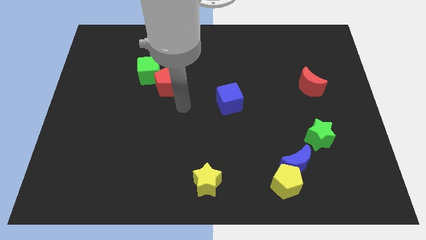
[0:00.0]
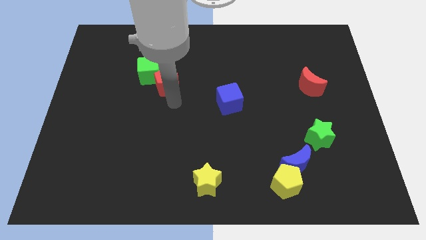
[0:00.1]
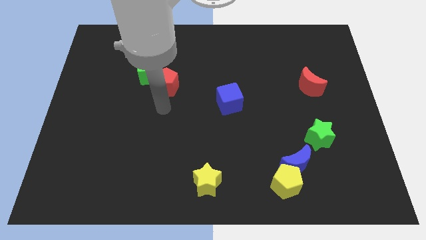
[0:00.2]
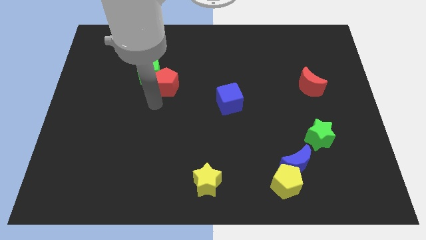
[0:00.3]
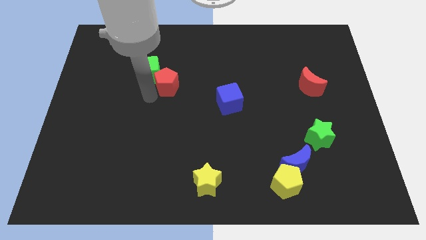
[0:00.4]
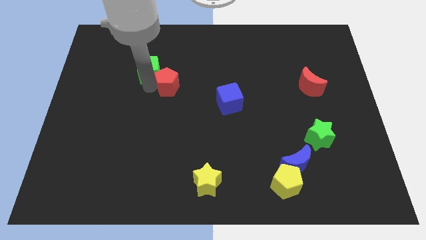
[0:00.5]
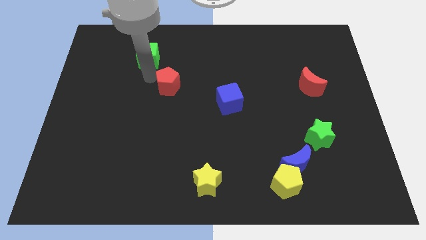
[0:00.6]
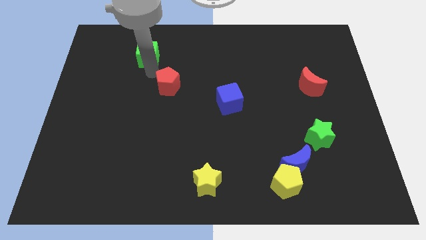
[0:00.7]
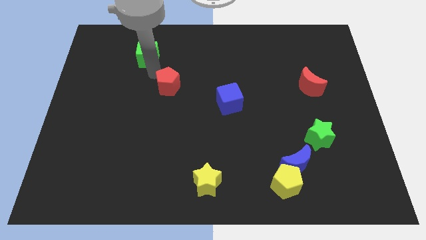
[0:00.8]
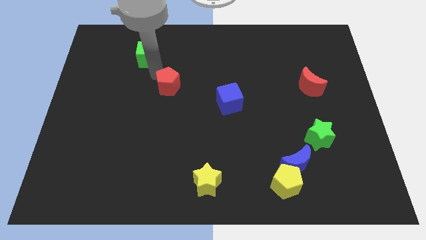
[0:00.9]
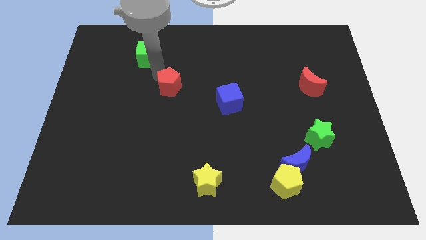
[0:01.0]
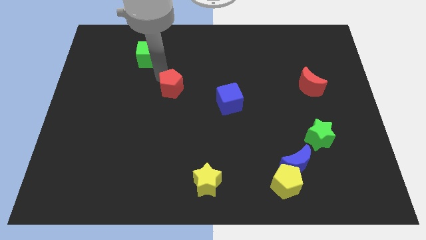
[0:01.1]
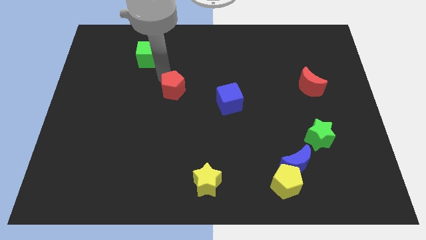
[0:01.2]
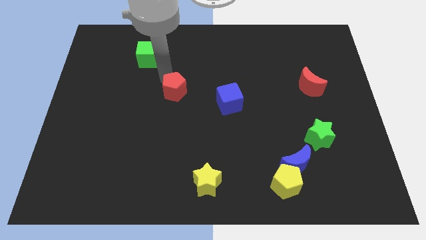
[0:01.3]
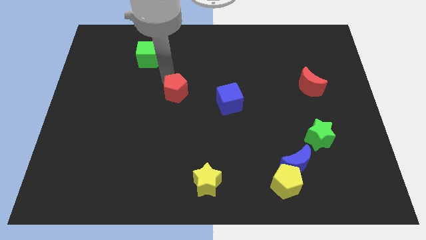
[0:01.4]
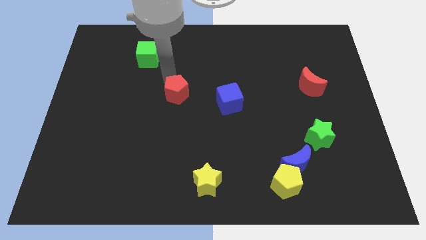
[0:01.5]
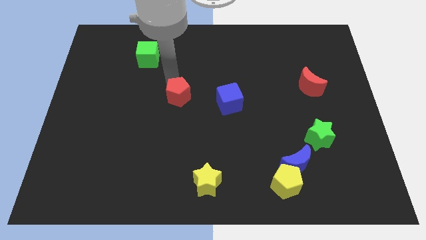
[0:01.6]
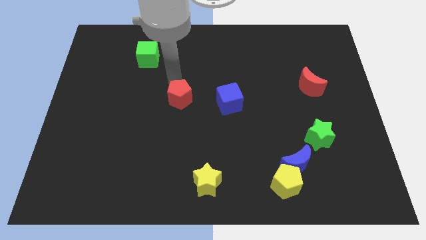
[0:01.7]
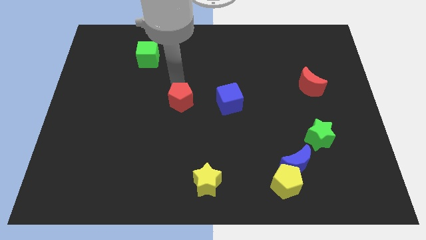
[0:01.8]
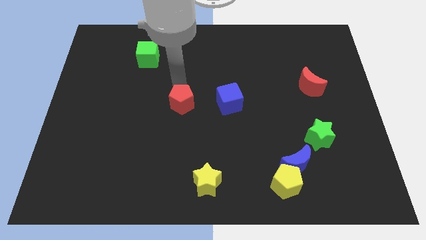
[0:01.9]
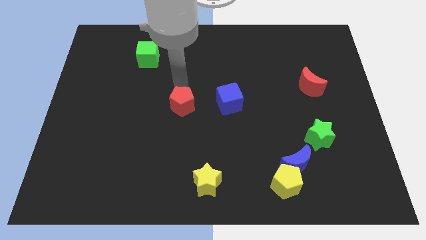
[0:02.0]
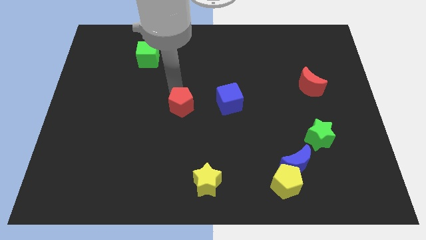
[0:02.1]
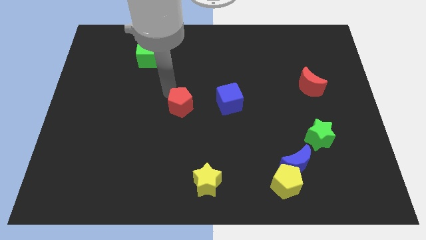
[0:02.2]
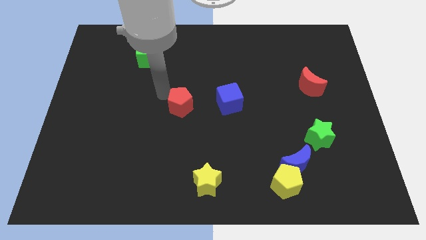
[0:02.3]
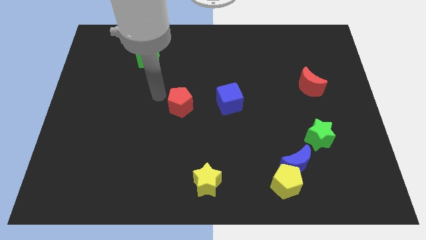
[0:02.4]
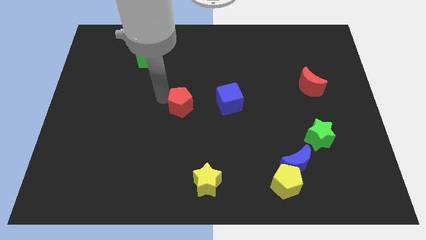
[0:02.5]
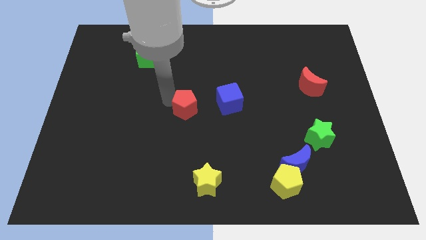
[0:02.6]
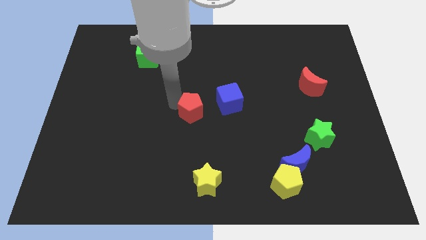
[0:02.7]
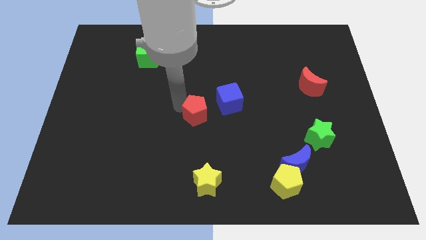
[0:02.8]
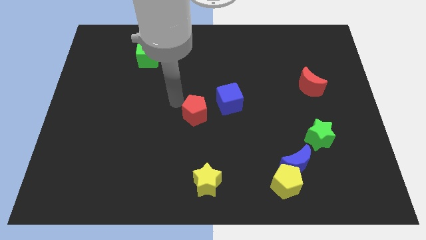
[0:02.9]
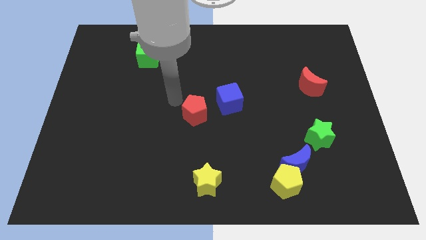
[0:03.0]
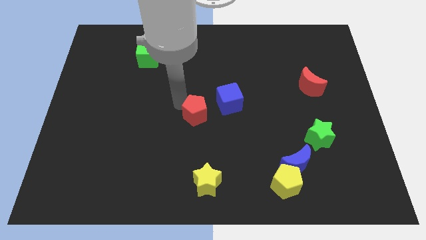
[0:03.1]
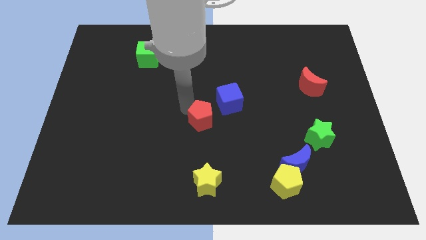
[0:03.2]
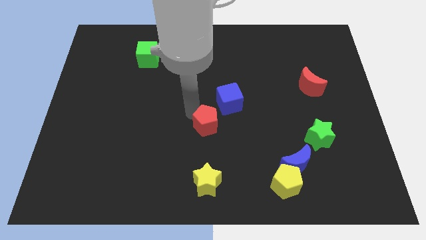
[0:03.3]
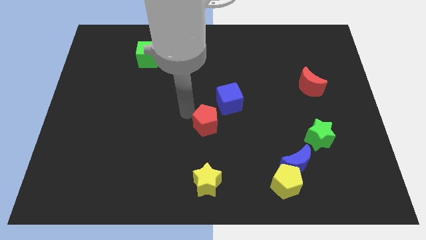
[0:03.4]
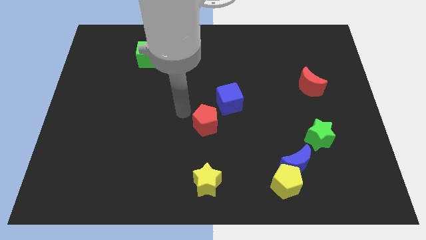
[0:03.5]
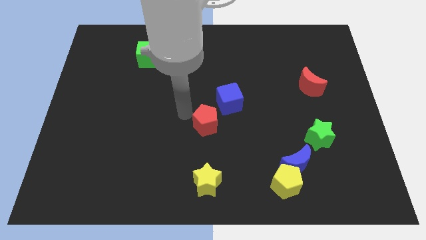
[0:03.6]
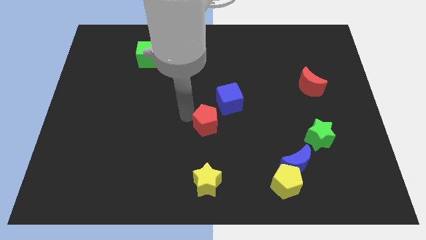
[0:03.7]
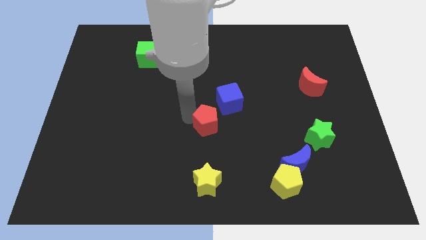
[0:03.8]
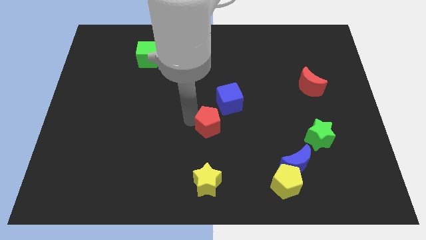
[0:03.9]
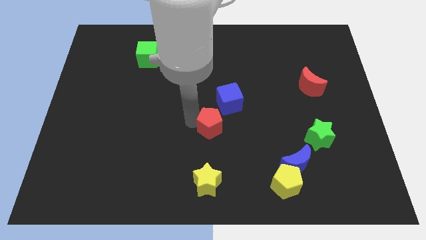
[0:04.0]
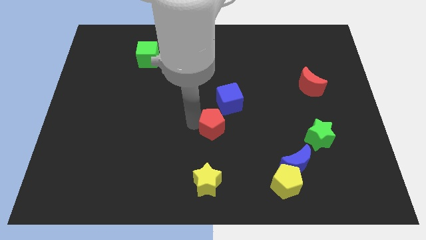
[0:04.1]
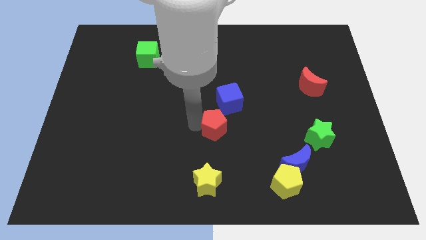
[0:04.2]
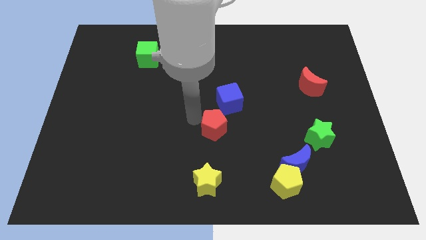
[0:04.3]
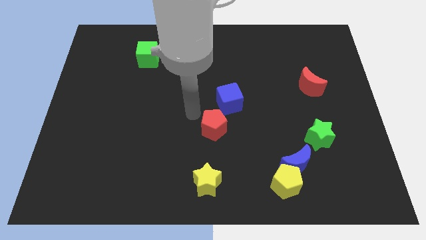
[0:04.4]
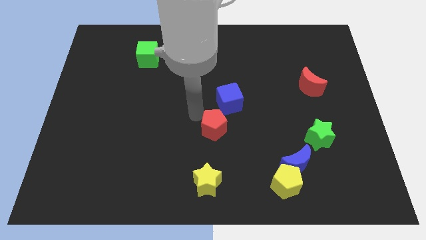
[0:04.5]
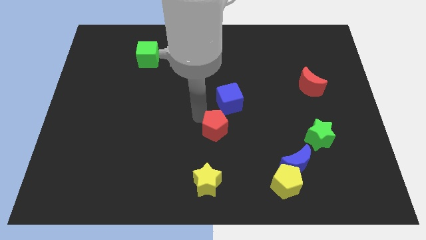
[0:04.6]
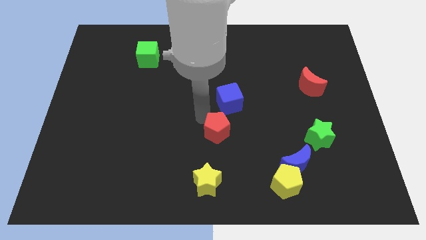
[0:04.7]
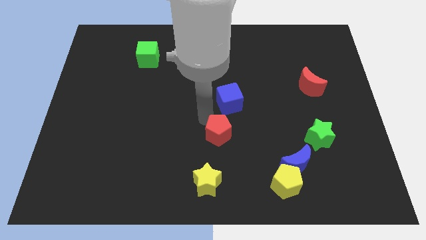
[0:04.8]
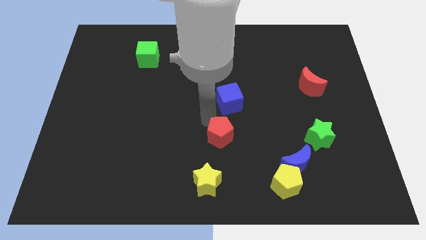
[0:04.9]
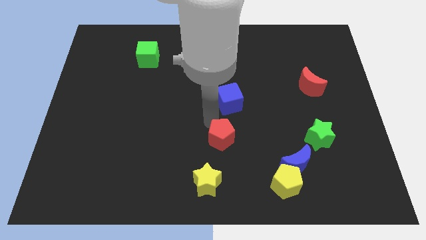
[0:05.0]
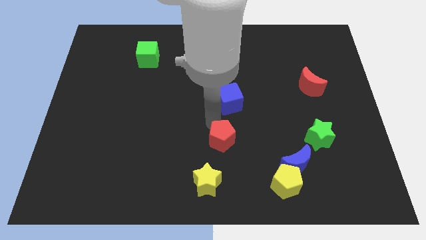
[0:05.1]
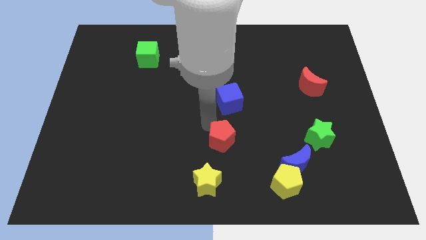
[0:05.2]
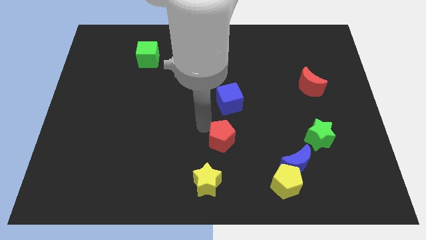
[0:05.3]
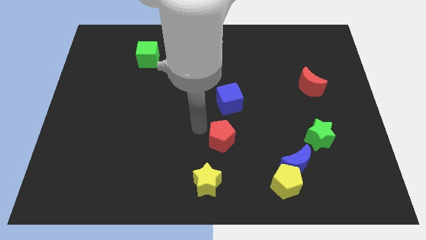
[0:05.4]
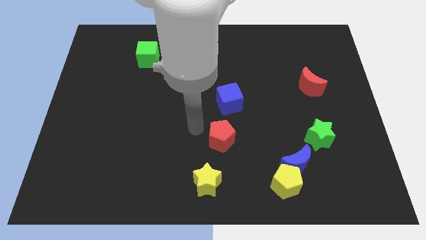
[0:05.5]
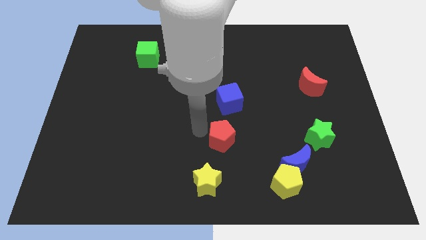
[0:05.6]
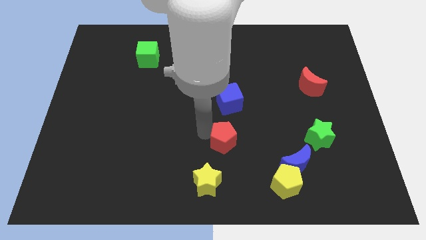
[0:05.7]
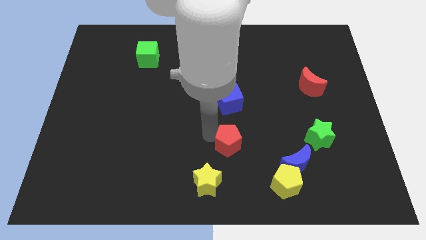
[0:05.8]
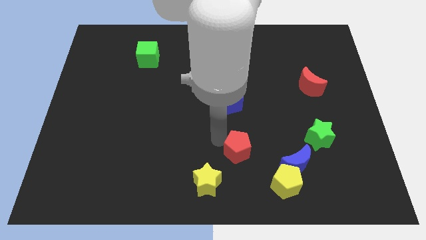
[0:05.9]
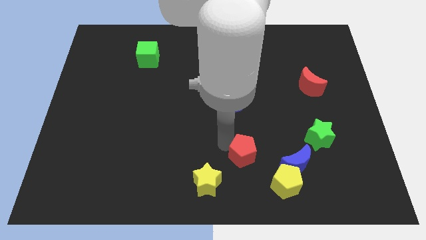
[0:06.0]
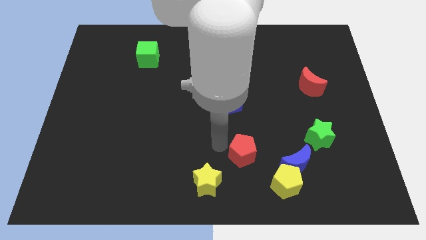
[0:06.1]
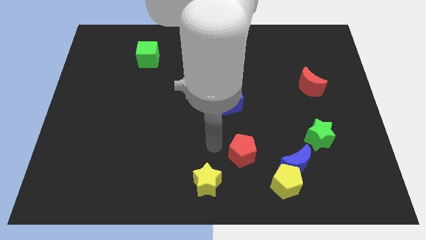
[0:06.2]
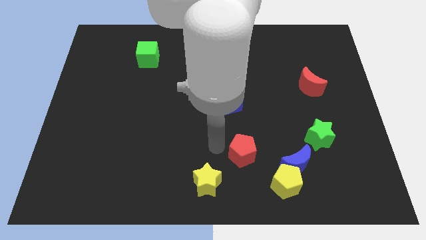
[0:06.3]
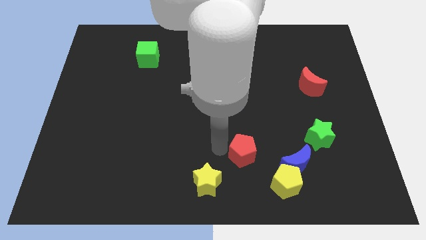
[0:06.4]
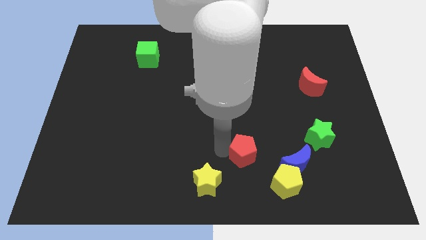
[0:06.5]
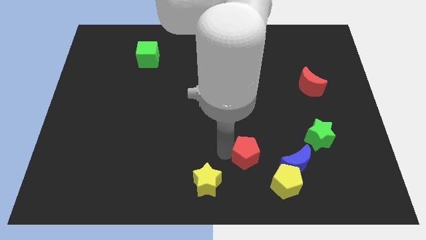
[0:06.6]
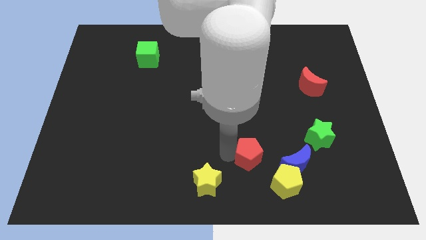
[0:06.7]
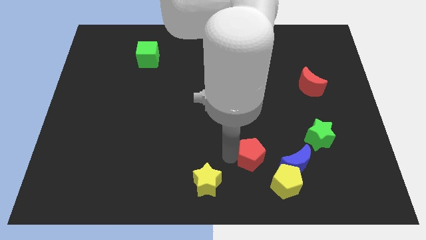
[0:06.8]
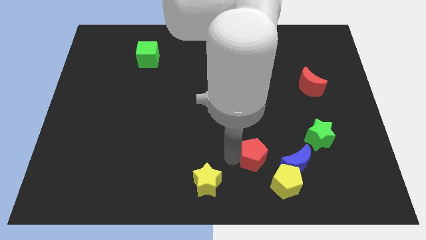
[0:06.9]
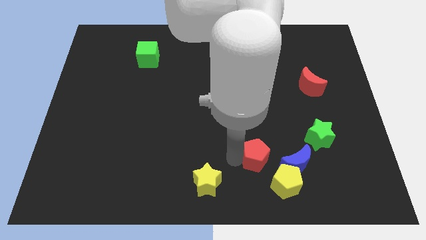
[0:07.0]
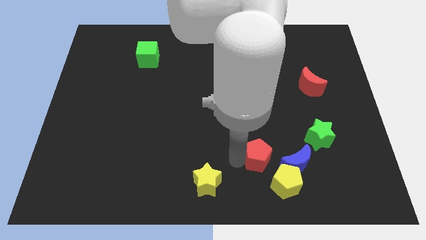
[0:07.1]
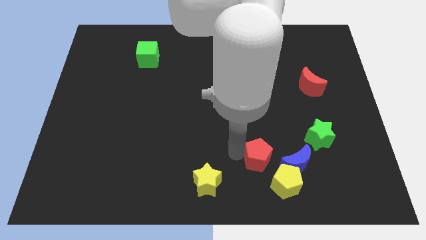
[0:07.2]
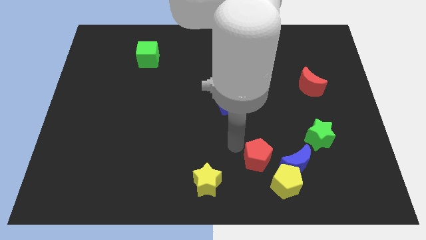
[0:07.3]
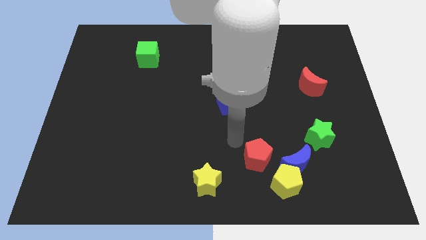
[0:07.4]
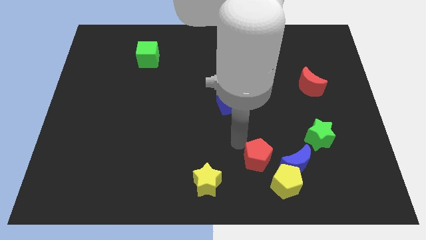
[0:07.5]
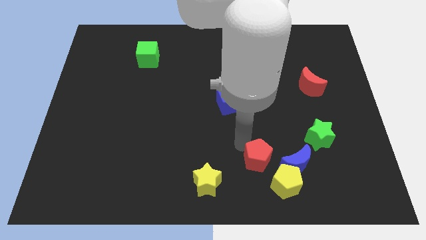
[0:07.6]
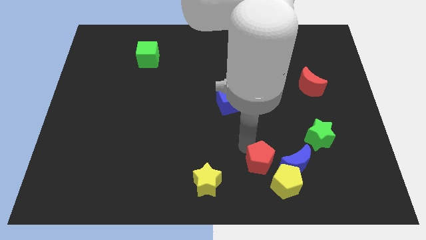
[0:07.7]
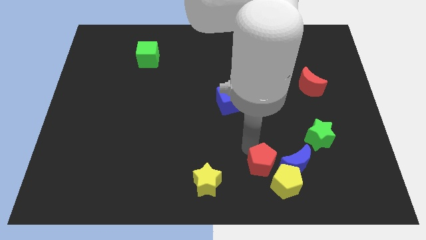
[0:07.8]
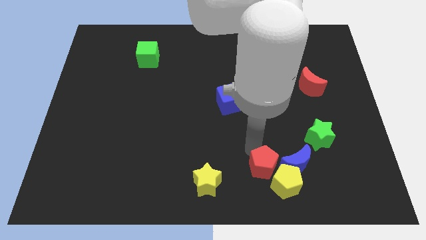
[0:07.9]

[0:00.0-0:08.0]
move the red pentagon to the yellow pentagon
